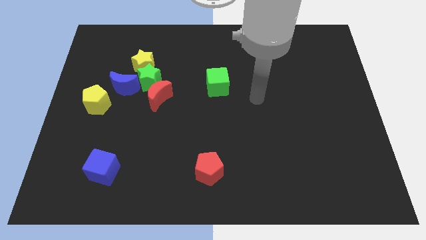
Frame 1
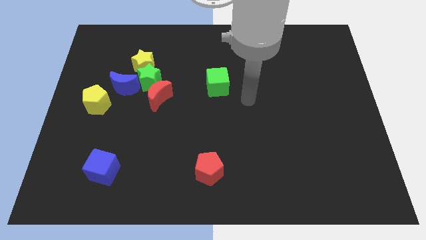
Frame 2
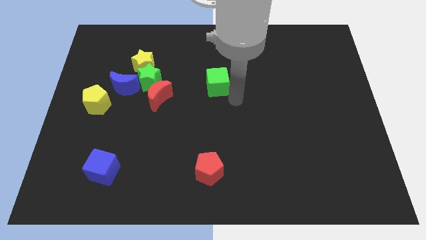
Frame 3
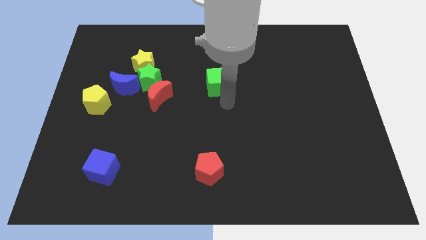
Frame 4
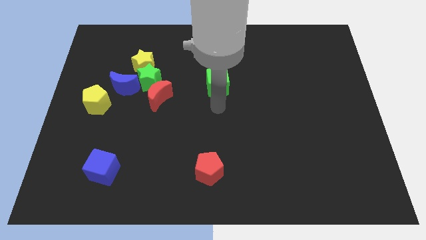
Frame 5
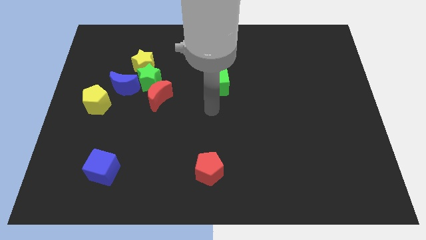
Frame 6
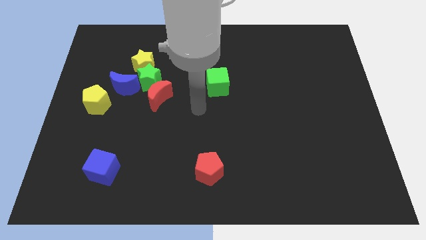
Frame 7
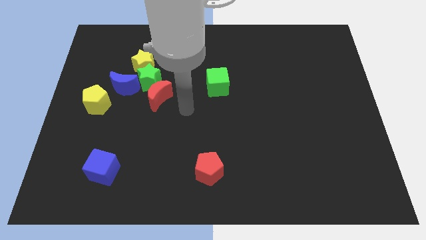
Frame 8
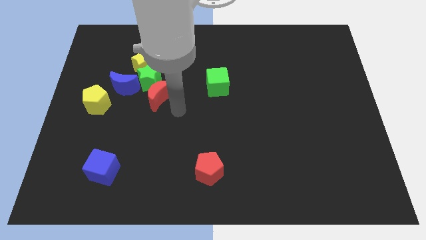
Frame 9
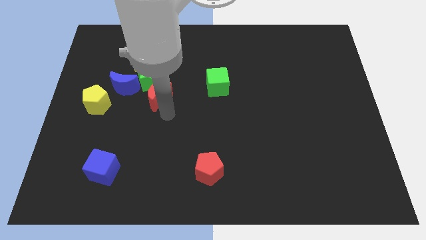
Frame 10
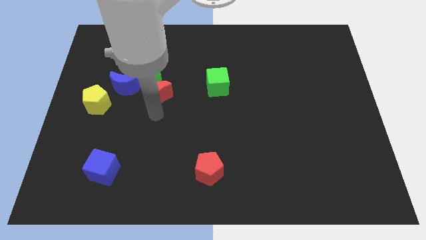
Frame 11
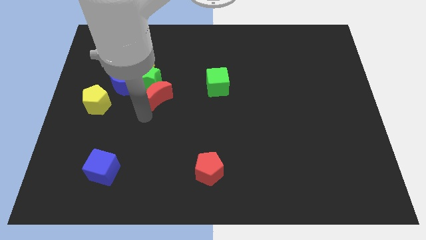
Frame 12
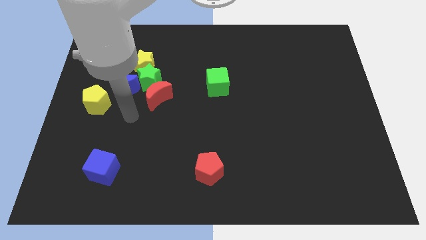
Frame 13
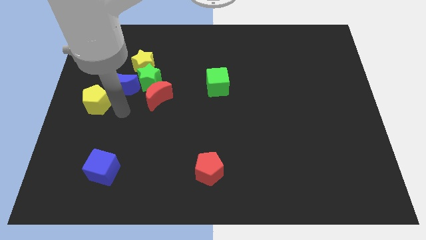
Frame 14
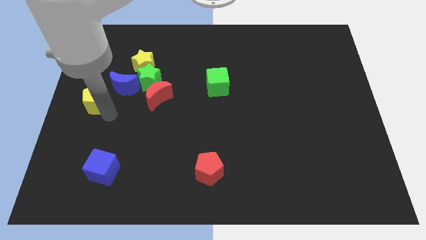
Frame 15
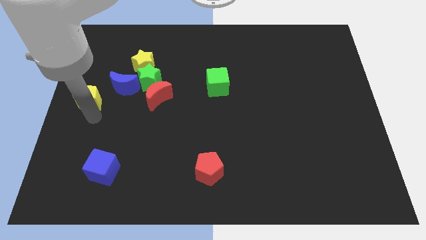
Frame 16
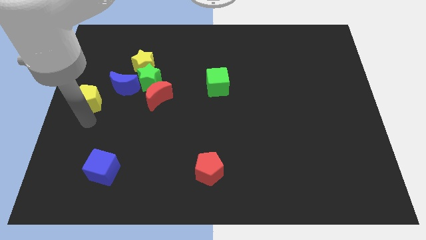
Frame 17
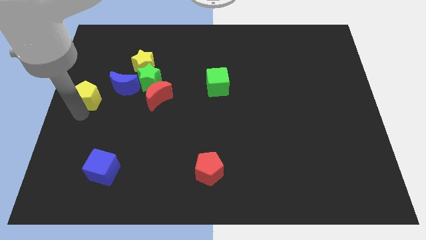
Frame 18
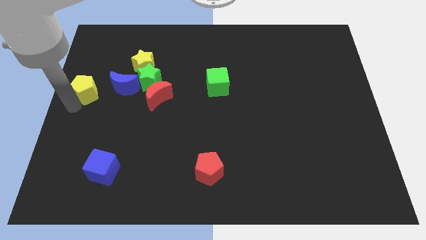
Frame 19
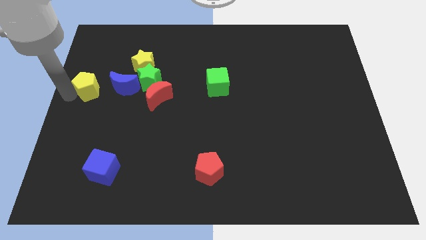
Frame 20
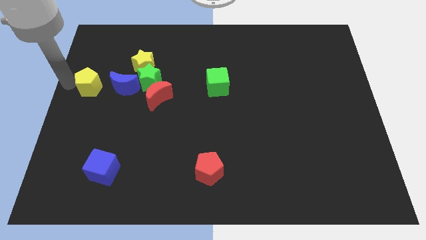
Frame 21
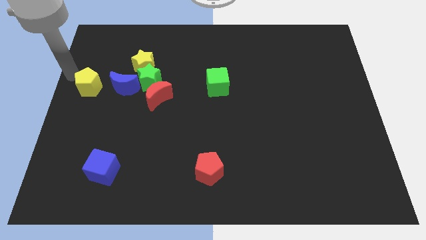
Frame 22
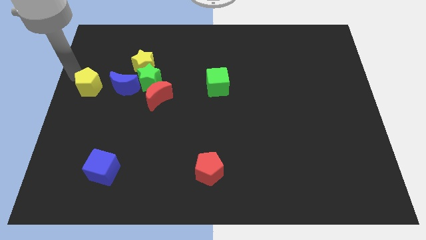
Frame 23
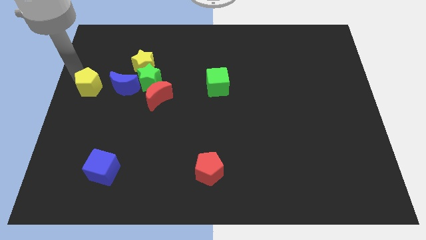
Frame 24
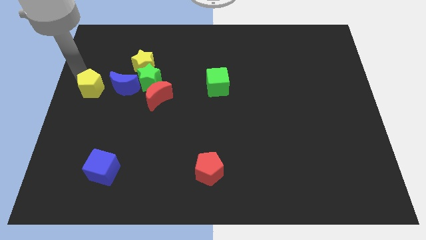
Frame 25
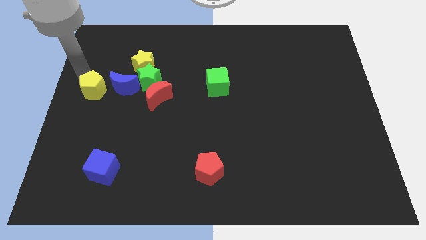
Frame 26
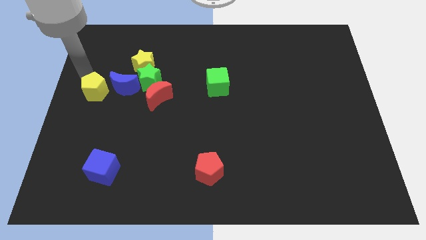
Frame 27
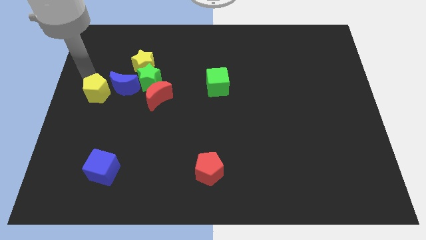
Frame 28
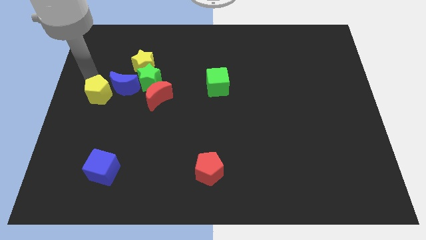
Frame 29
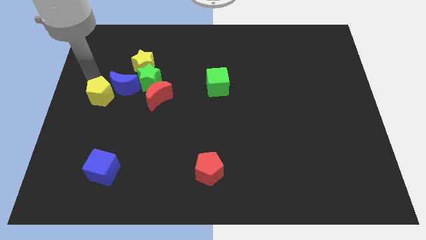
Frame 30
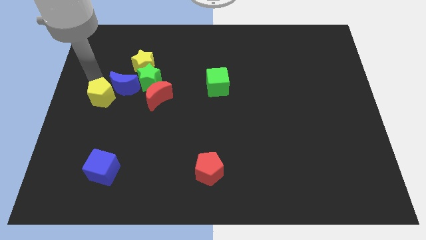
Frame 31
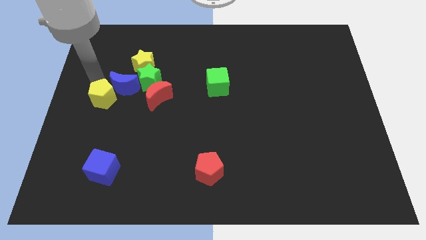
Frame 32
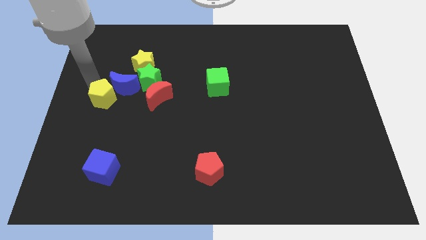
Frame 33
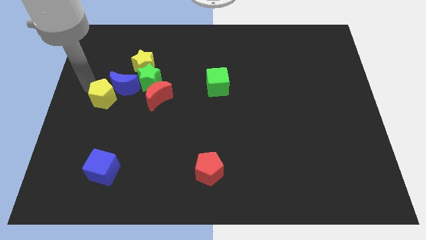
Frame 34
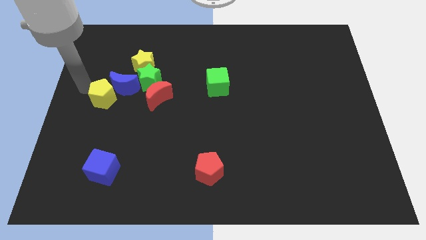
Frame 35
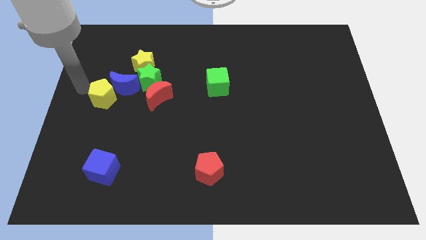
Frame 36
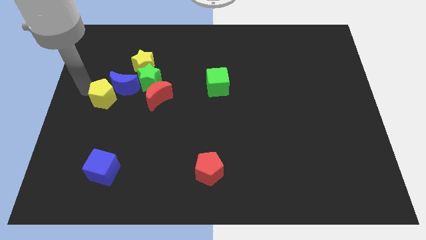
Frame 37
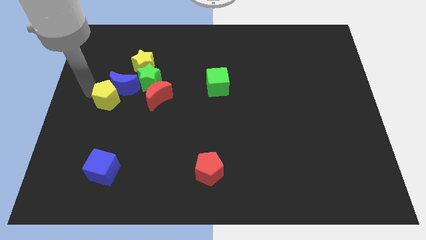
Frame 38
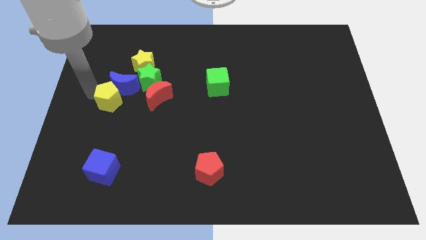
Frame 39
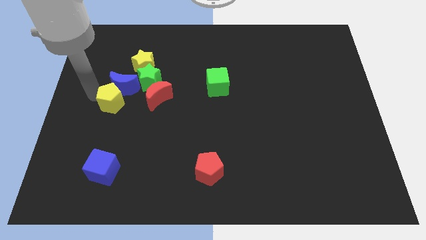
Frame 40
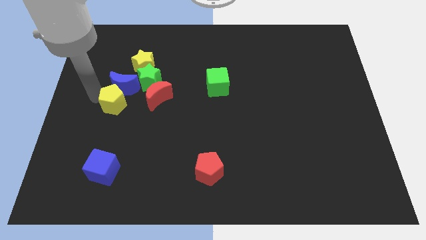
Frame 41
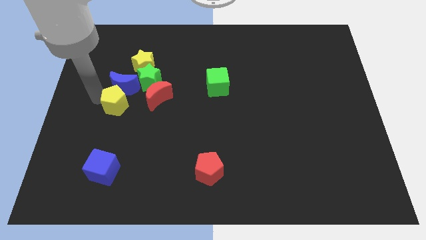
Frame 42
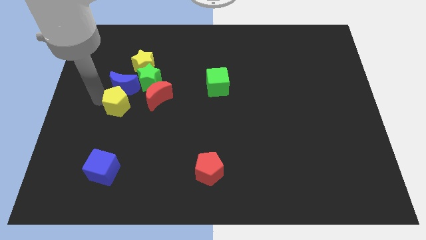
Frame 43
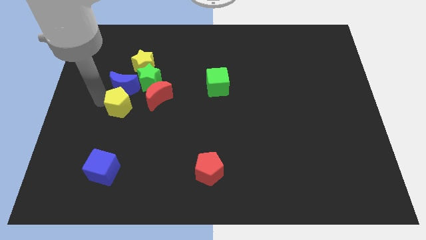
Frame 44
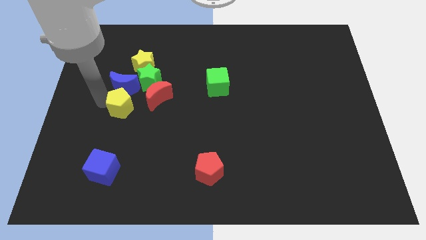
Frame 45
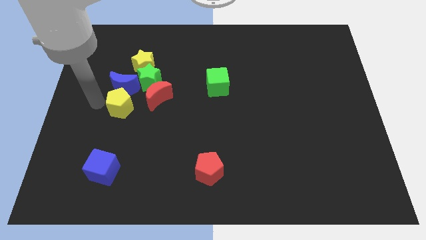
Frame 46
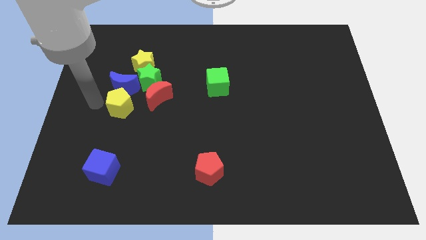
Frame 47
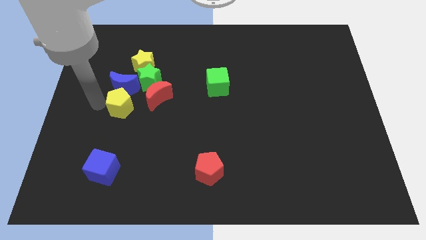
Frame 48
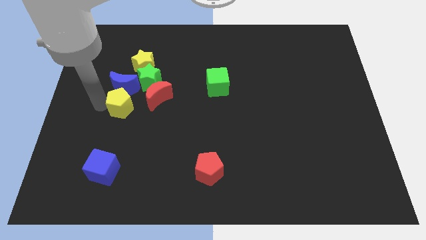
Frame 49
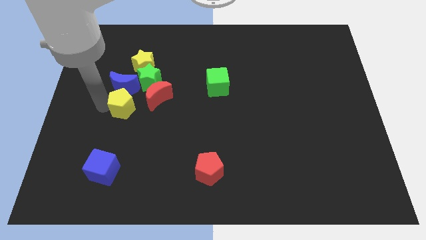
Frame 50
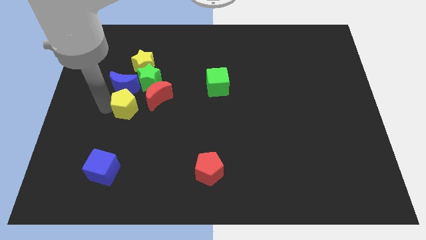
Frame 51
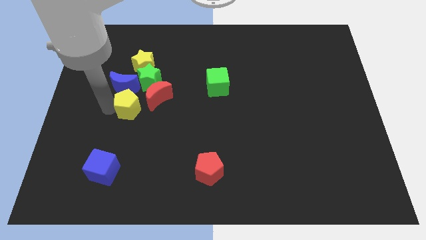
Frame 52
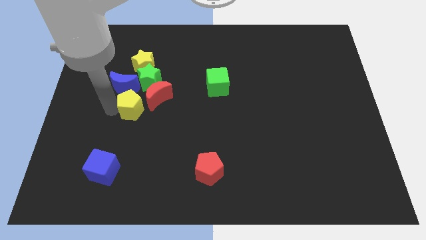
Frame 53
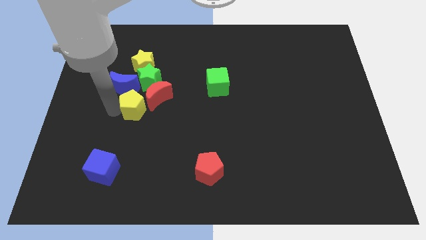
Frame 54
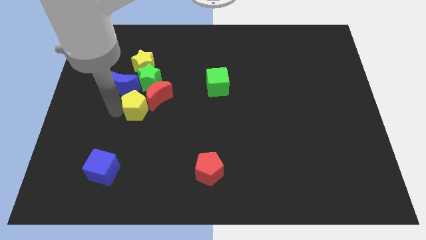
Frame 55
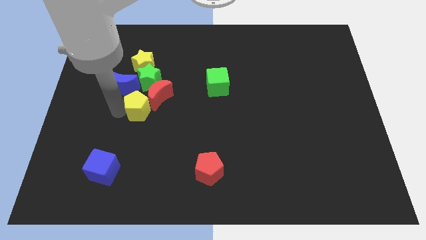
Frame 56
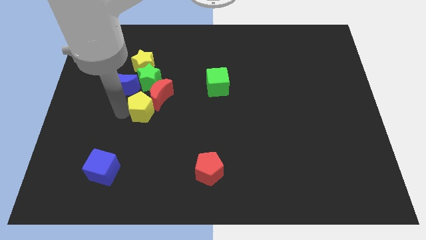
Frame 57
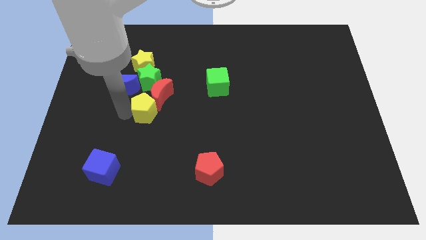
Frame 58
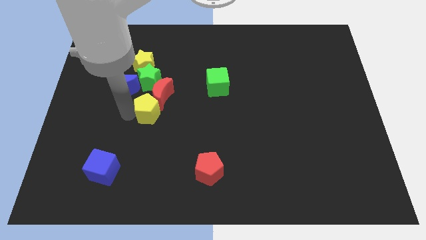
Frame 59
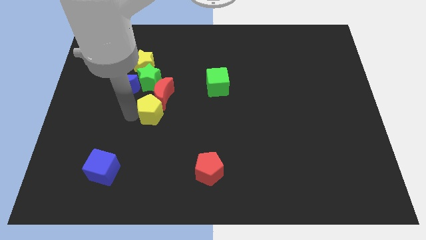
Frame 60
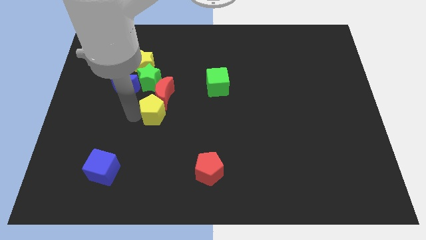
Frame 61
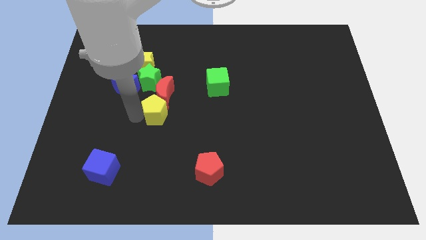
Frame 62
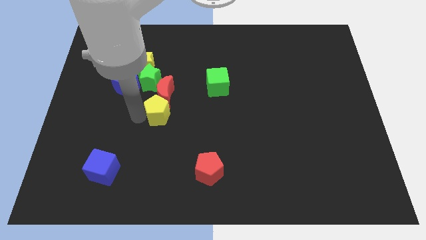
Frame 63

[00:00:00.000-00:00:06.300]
put the yellow pentagon to the bottom right of the green star

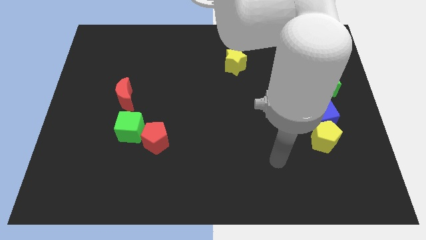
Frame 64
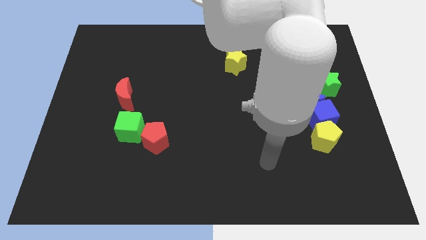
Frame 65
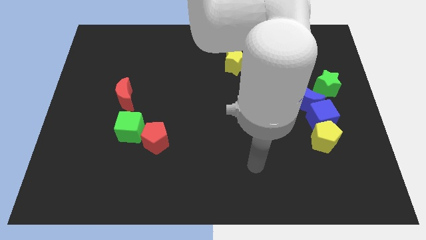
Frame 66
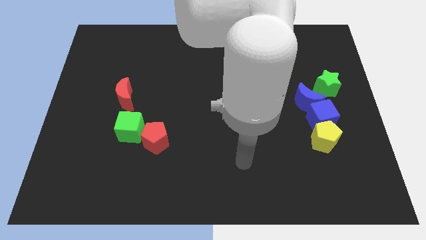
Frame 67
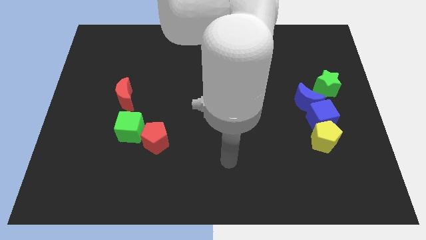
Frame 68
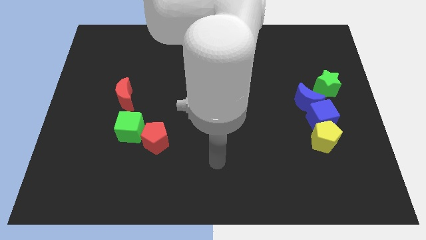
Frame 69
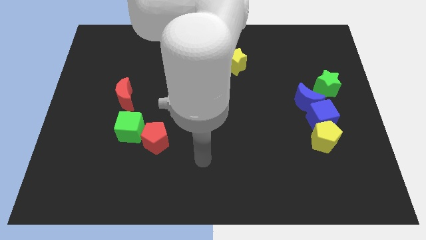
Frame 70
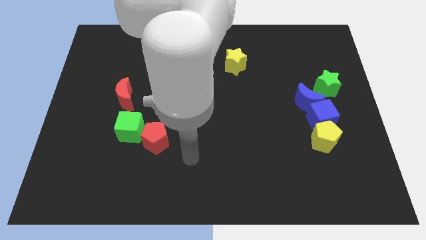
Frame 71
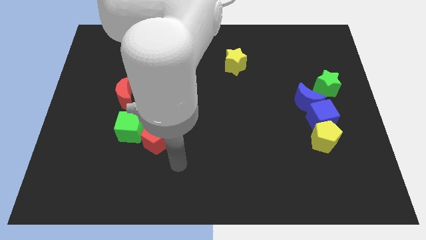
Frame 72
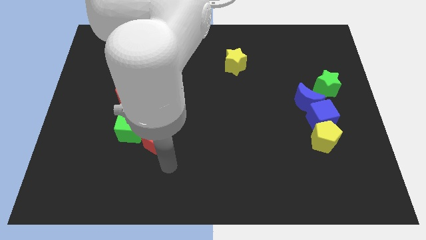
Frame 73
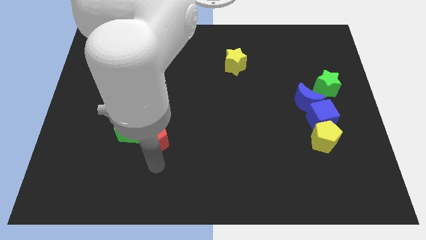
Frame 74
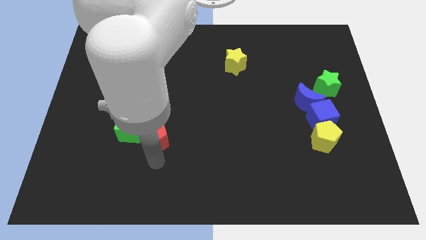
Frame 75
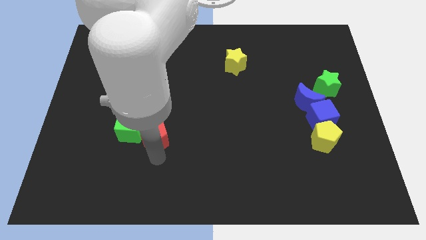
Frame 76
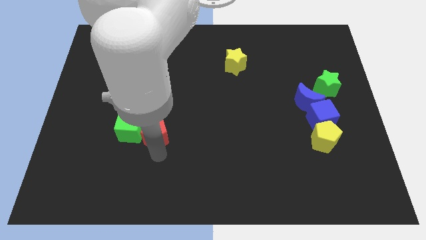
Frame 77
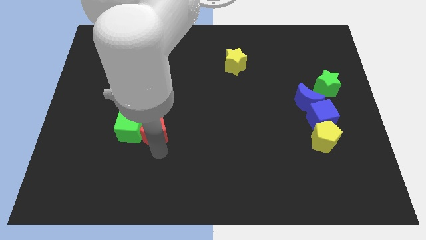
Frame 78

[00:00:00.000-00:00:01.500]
push the red pentagon to the top right of the green cube

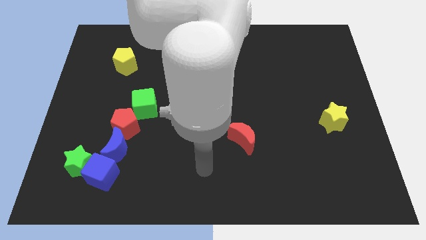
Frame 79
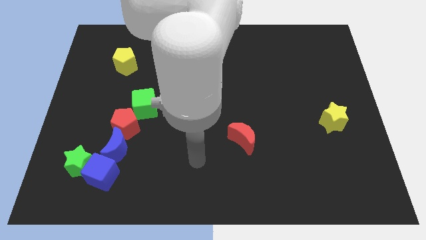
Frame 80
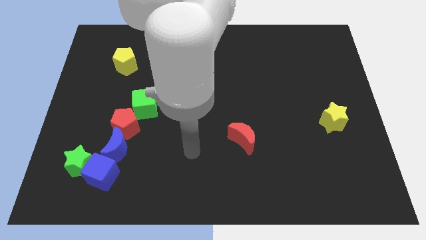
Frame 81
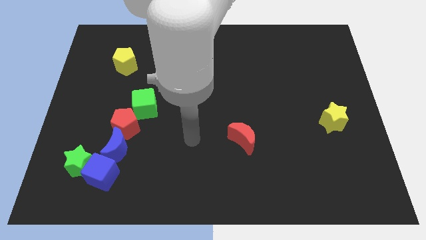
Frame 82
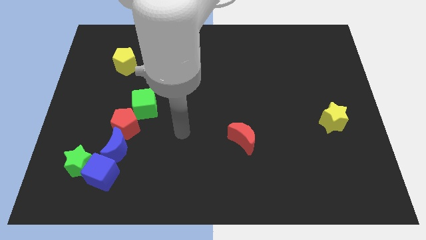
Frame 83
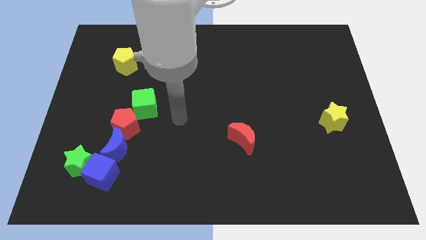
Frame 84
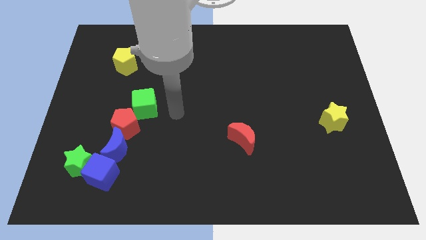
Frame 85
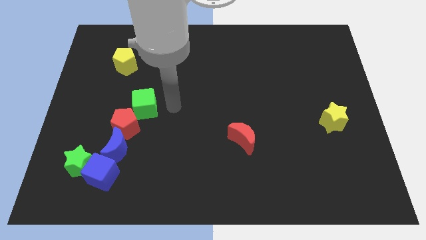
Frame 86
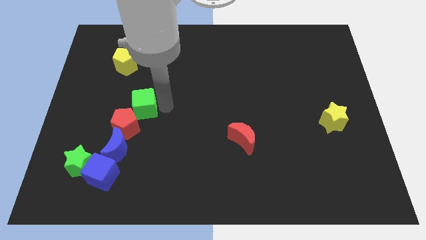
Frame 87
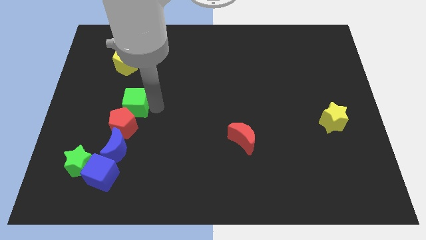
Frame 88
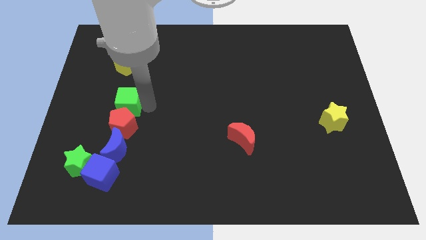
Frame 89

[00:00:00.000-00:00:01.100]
move the green cube to the top left side of the red pentagon
